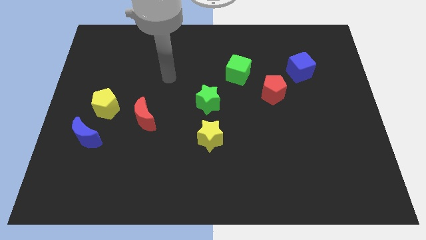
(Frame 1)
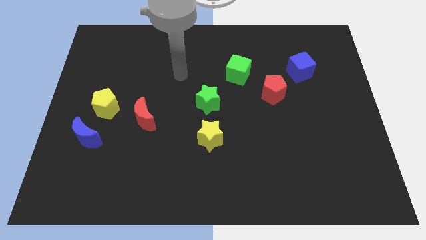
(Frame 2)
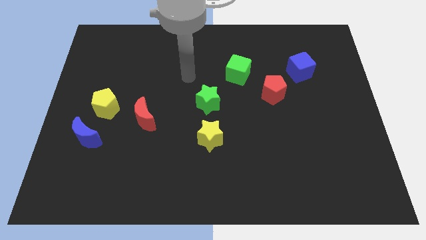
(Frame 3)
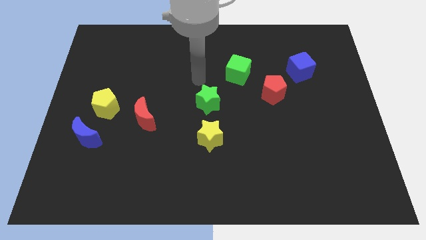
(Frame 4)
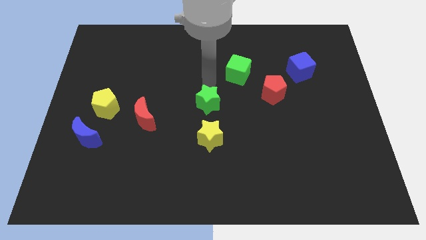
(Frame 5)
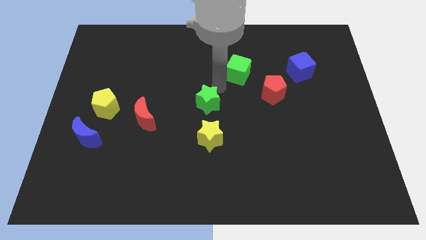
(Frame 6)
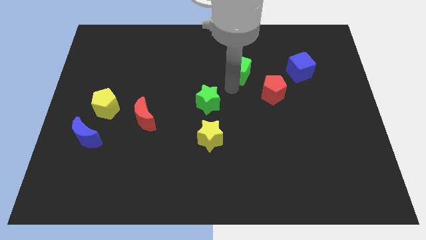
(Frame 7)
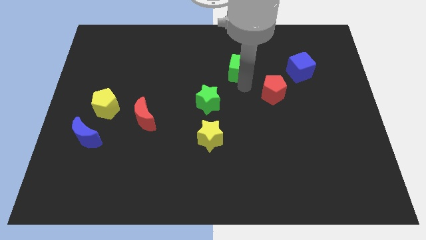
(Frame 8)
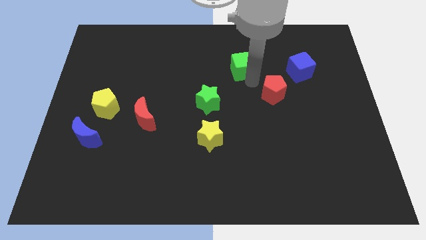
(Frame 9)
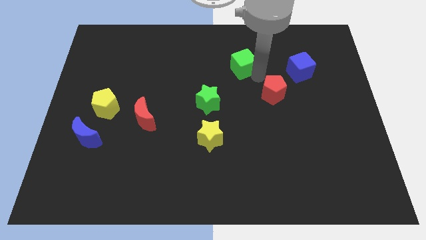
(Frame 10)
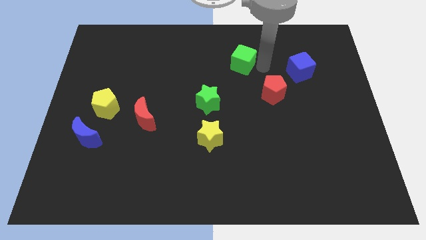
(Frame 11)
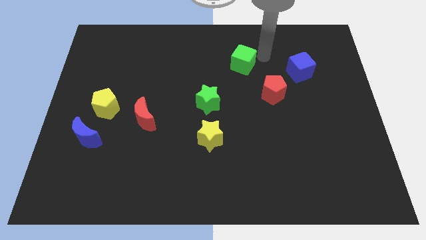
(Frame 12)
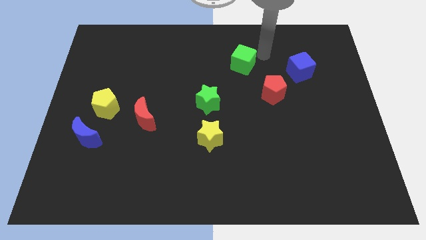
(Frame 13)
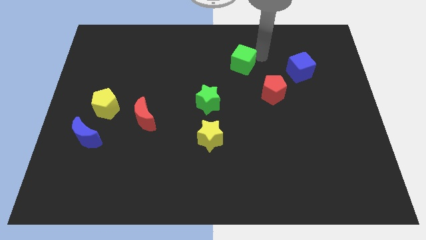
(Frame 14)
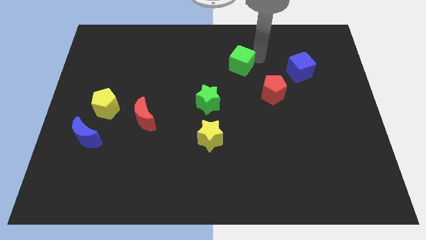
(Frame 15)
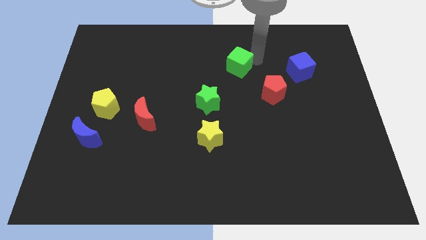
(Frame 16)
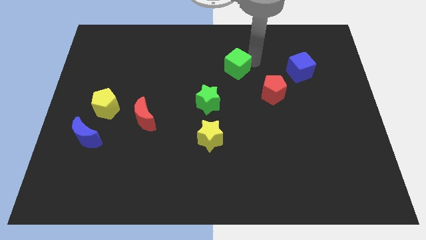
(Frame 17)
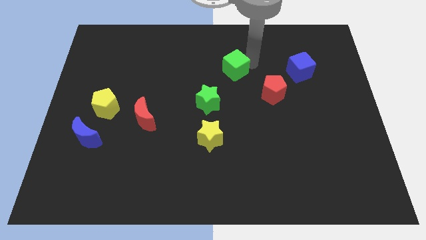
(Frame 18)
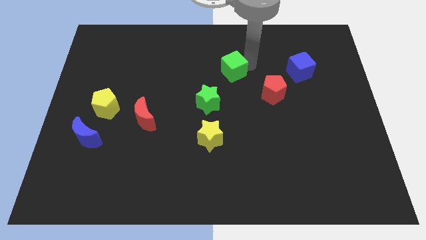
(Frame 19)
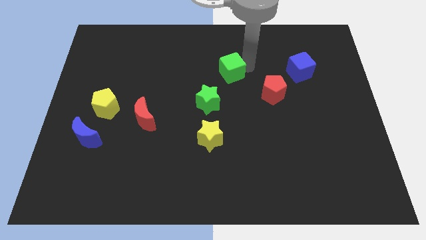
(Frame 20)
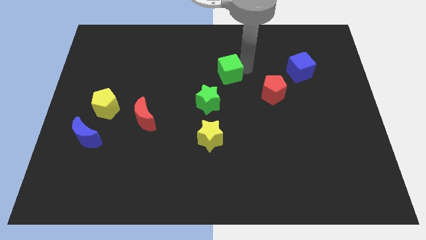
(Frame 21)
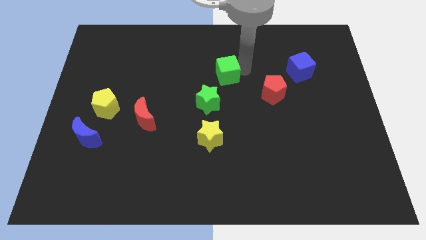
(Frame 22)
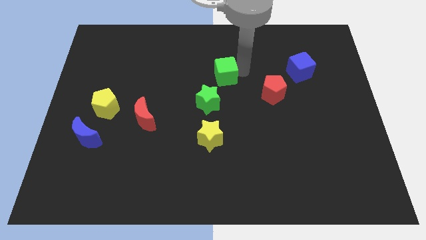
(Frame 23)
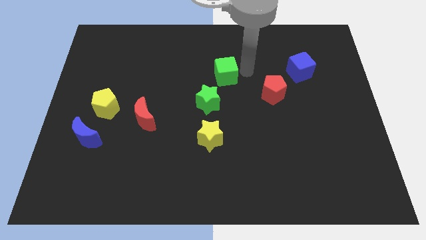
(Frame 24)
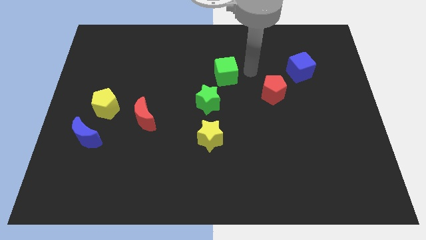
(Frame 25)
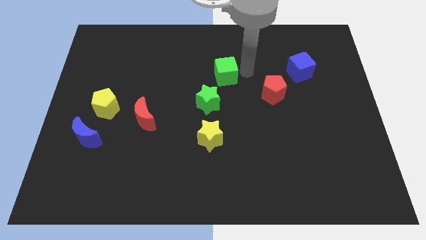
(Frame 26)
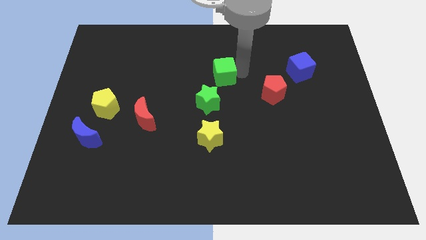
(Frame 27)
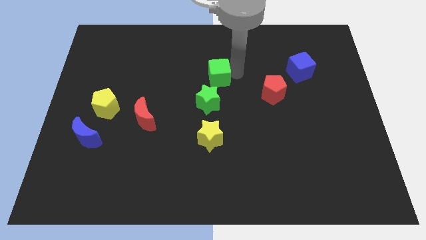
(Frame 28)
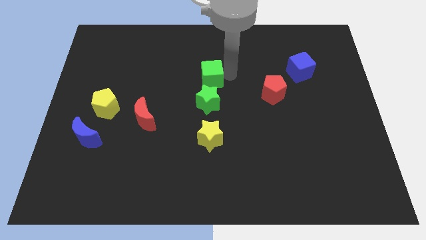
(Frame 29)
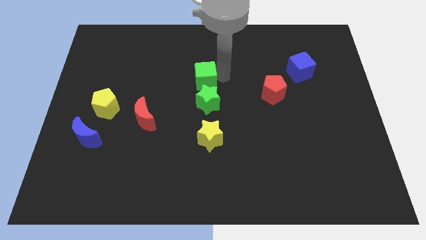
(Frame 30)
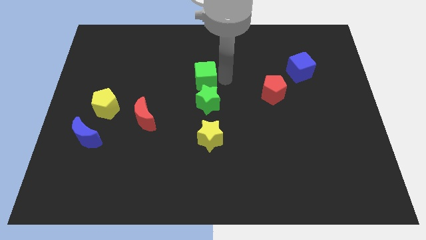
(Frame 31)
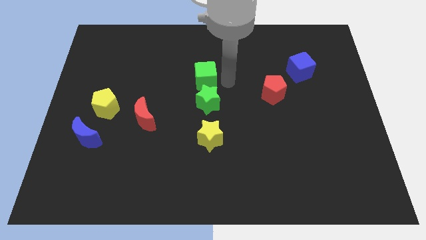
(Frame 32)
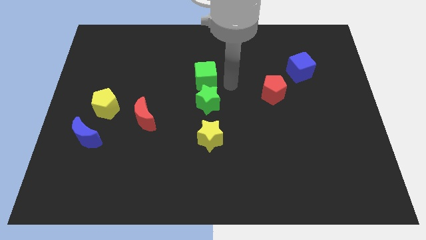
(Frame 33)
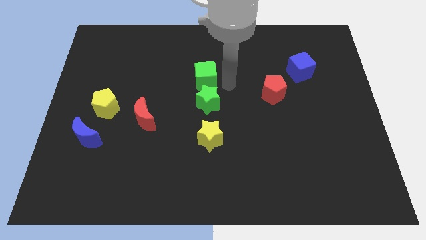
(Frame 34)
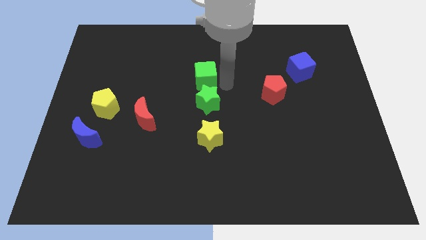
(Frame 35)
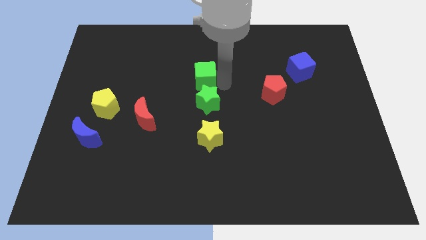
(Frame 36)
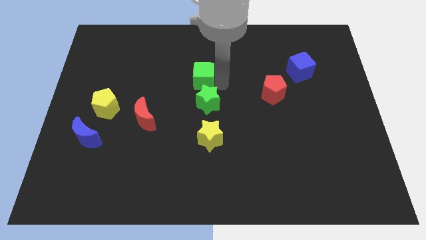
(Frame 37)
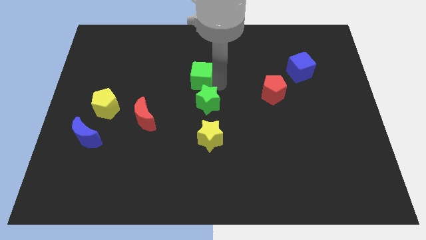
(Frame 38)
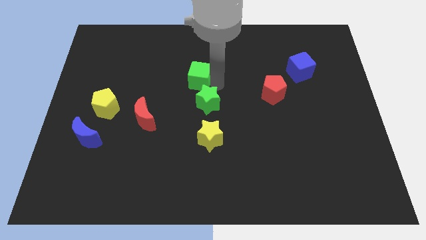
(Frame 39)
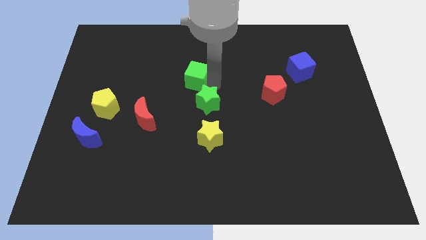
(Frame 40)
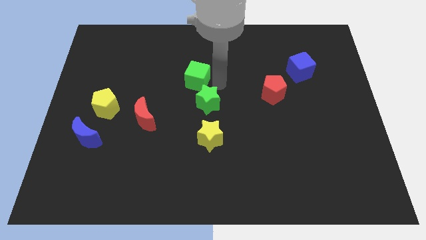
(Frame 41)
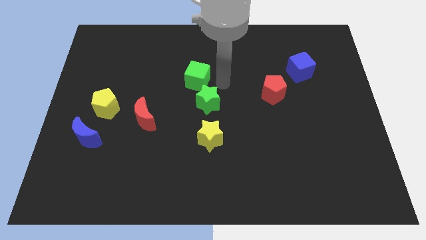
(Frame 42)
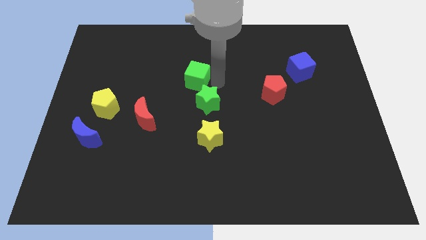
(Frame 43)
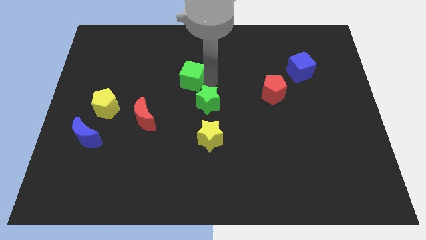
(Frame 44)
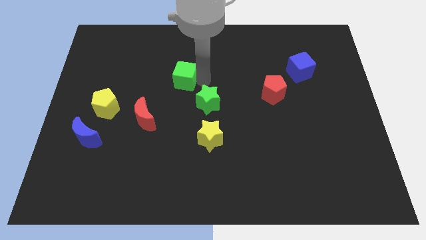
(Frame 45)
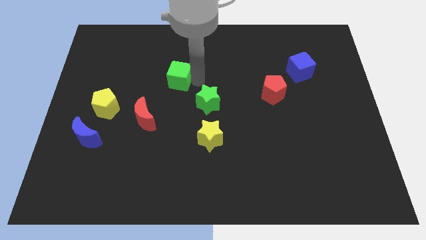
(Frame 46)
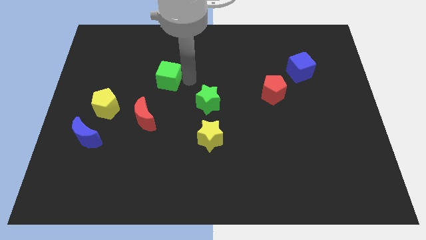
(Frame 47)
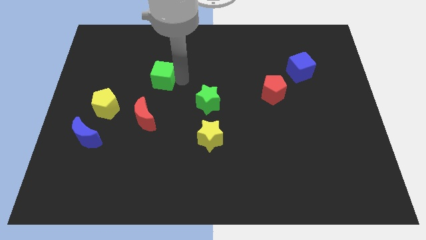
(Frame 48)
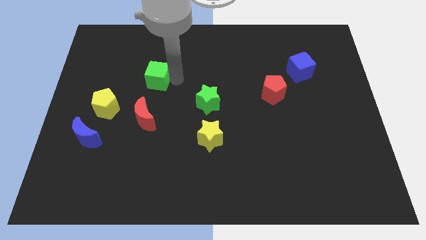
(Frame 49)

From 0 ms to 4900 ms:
slide the green cube to the left

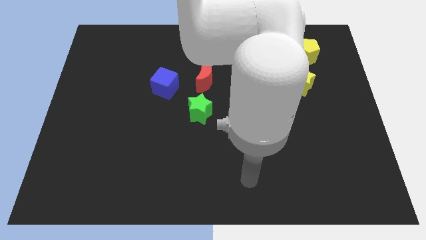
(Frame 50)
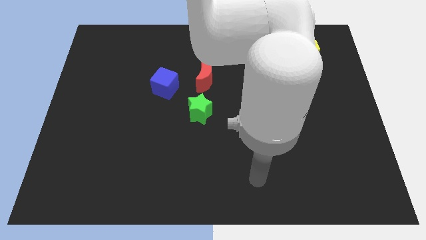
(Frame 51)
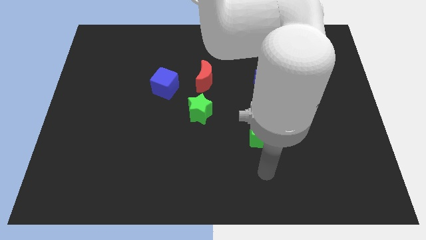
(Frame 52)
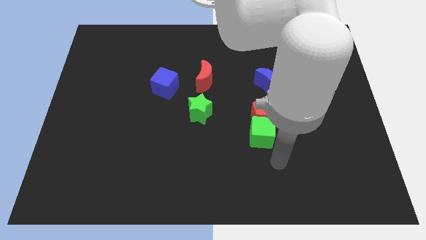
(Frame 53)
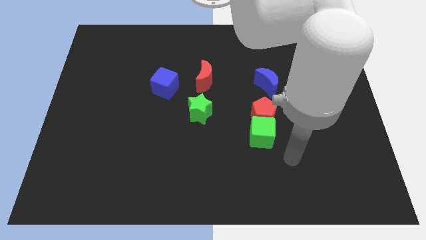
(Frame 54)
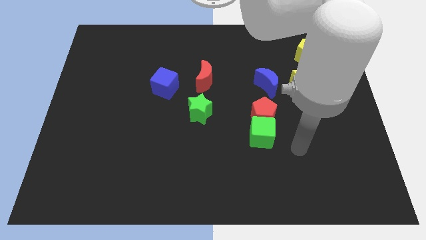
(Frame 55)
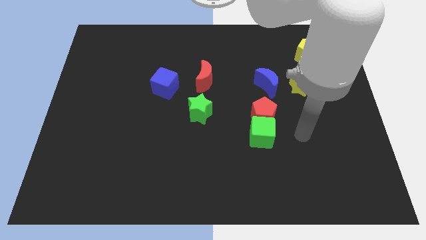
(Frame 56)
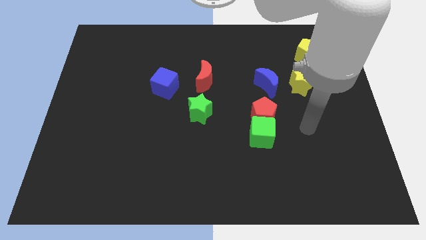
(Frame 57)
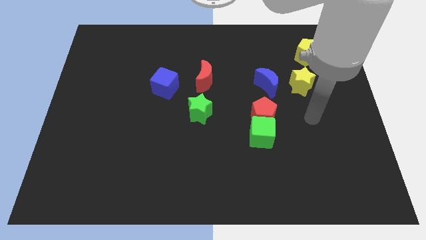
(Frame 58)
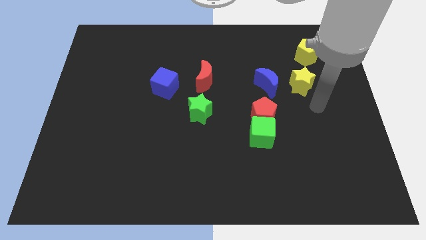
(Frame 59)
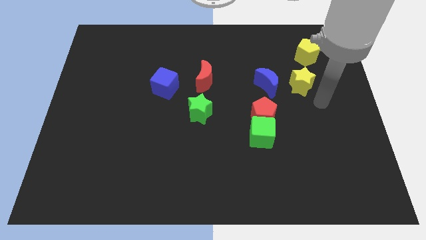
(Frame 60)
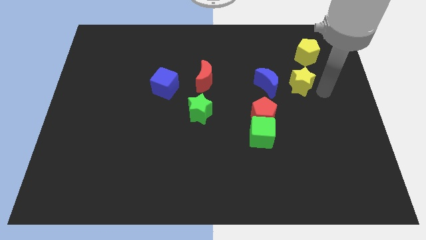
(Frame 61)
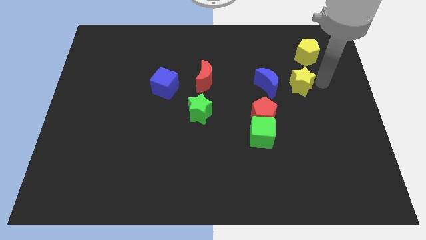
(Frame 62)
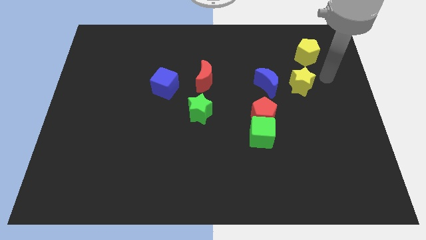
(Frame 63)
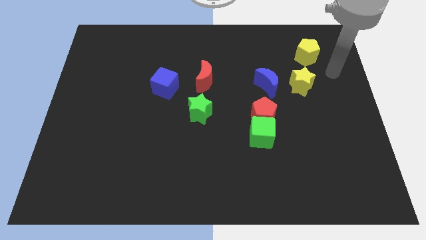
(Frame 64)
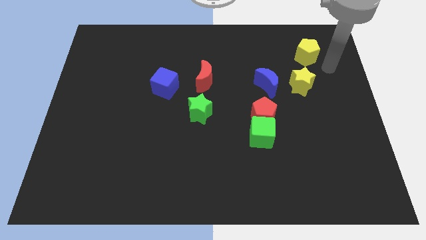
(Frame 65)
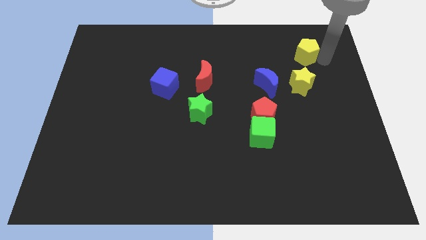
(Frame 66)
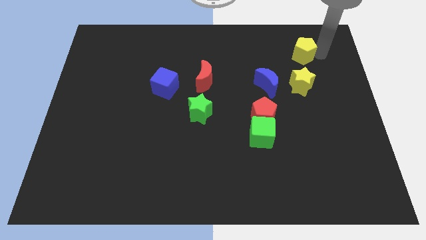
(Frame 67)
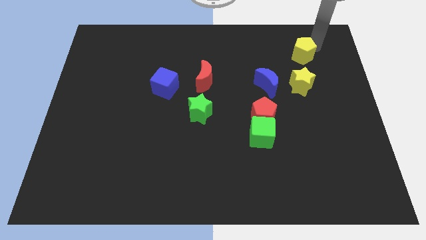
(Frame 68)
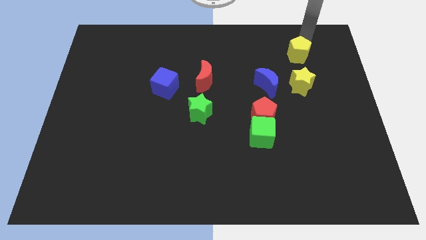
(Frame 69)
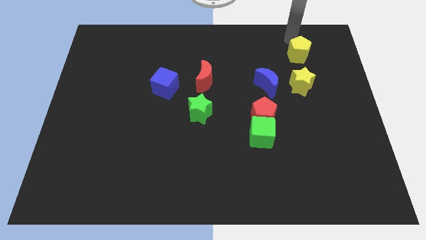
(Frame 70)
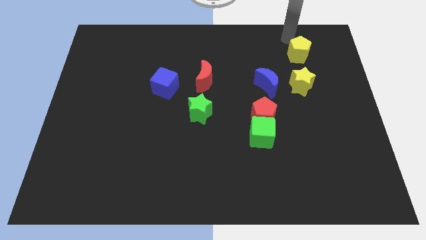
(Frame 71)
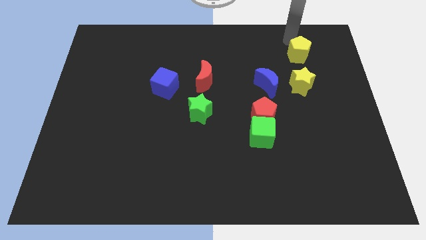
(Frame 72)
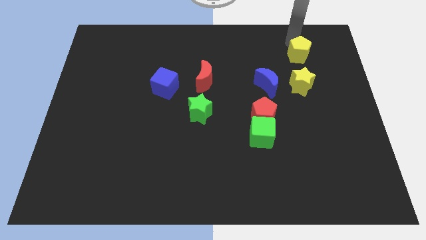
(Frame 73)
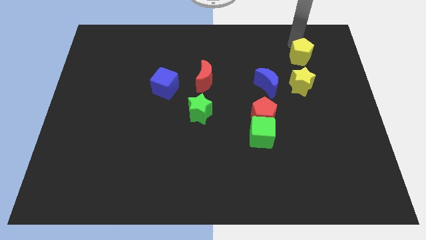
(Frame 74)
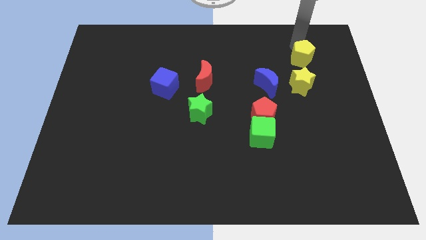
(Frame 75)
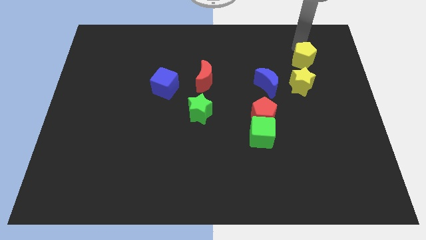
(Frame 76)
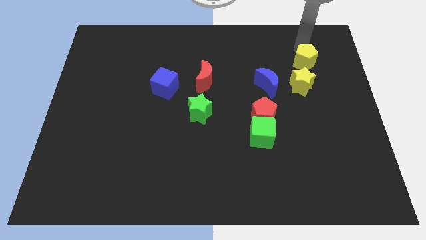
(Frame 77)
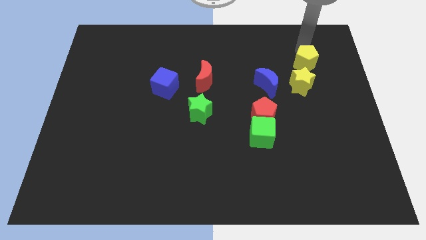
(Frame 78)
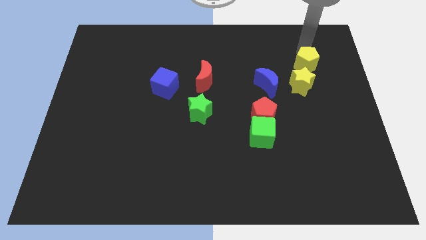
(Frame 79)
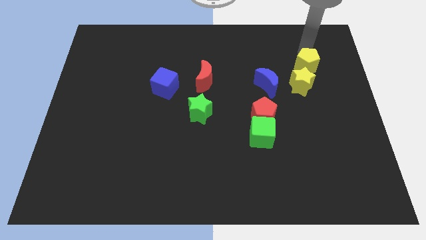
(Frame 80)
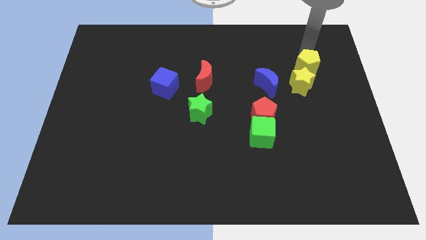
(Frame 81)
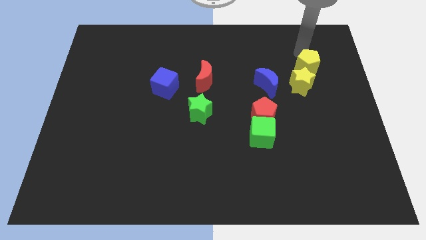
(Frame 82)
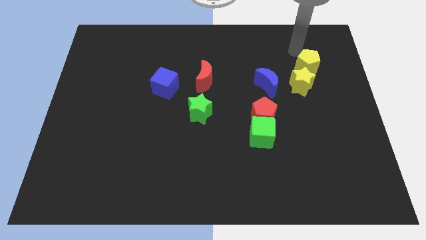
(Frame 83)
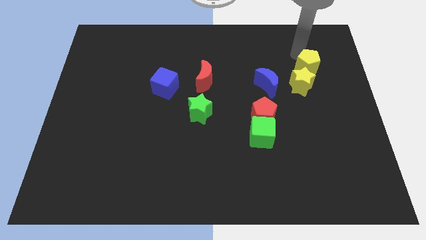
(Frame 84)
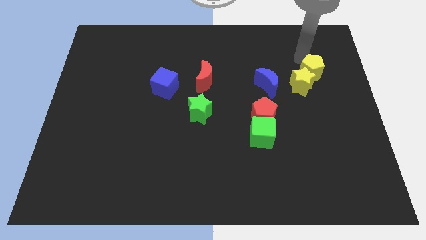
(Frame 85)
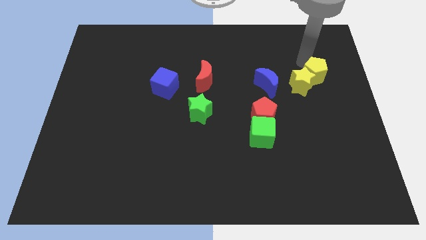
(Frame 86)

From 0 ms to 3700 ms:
slightly move the yellow pentagon down
